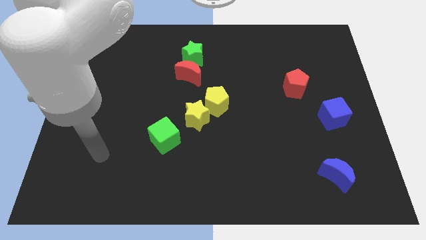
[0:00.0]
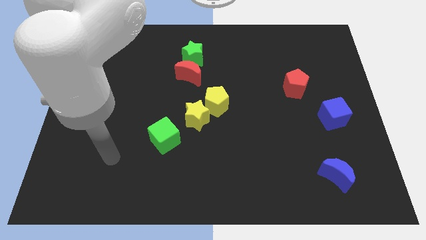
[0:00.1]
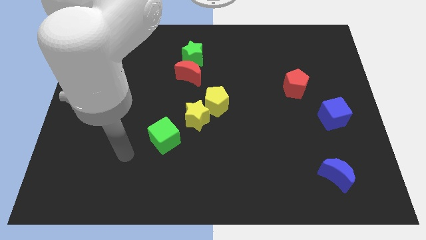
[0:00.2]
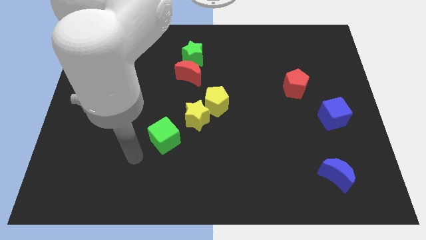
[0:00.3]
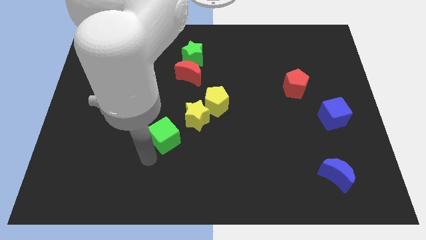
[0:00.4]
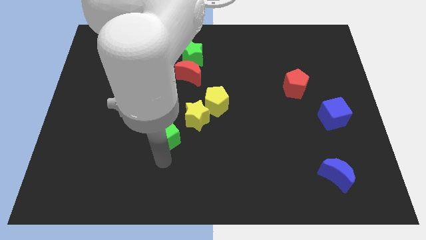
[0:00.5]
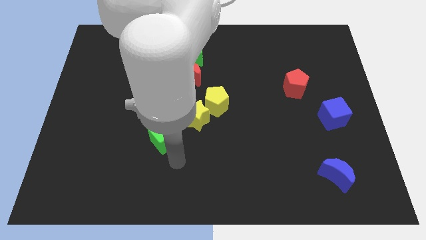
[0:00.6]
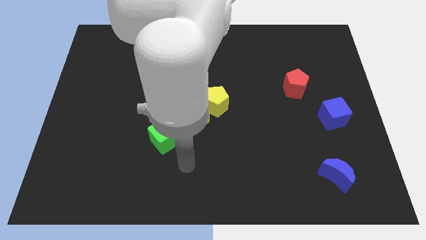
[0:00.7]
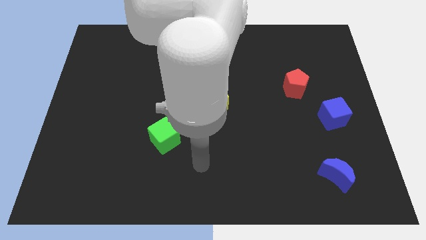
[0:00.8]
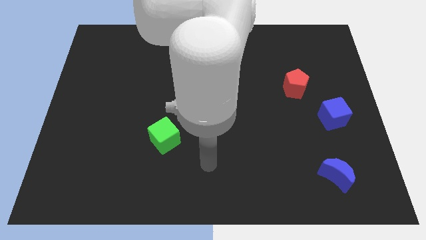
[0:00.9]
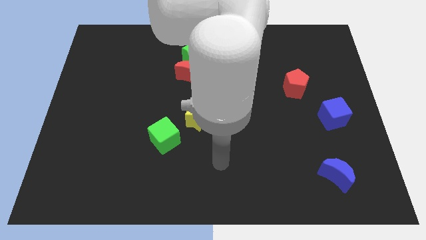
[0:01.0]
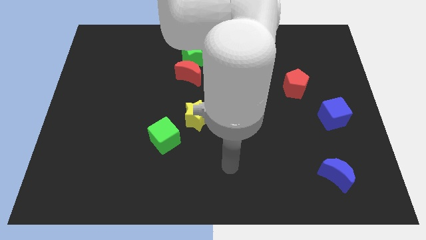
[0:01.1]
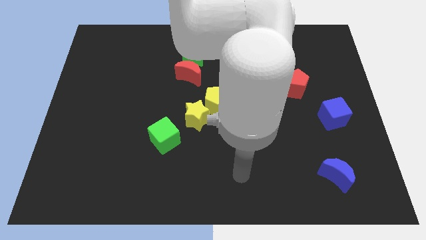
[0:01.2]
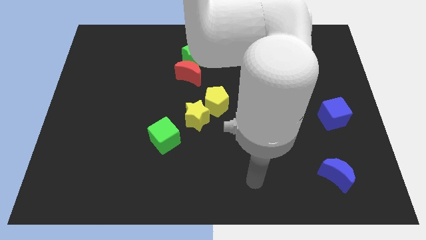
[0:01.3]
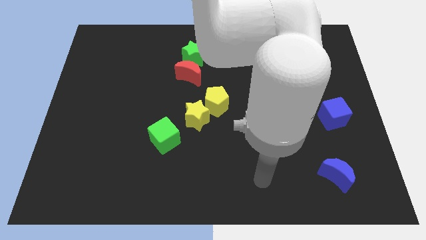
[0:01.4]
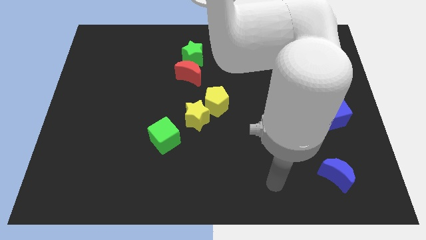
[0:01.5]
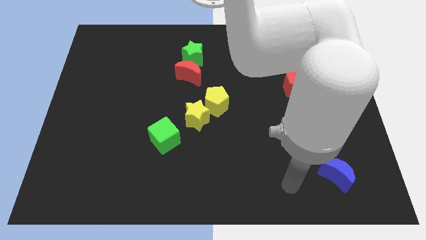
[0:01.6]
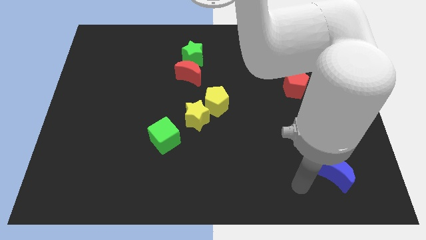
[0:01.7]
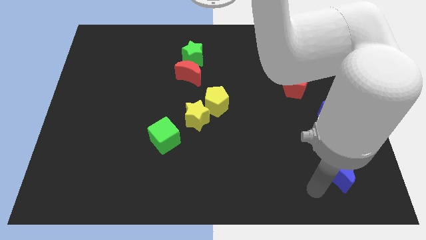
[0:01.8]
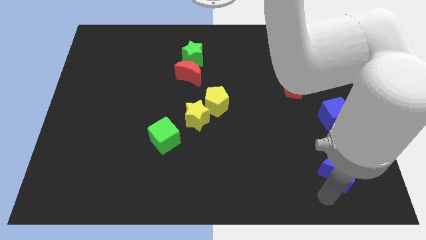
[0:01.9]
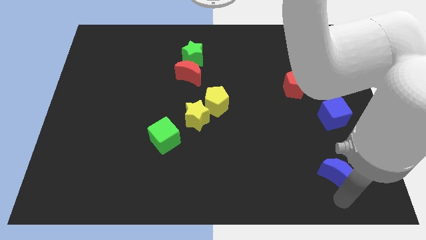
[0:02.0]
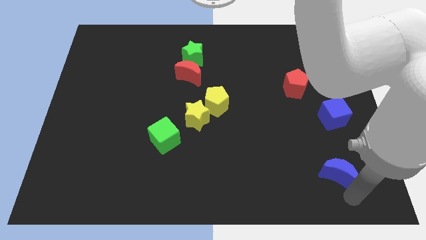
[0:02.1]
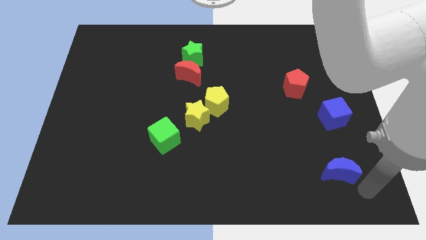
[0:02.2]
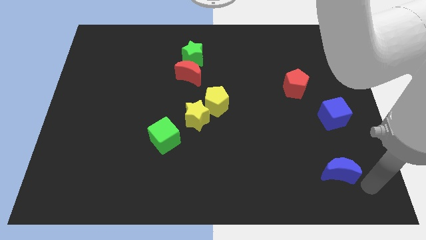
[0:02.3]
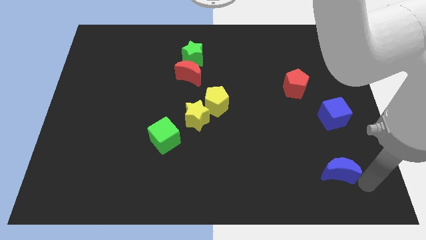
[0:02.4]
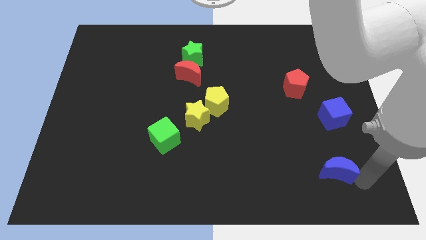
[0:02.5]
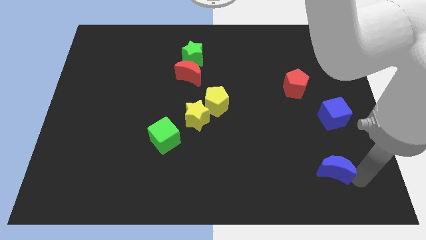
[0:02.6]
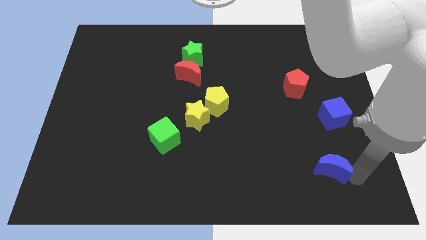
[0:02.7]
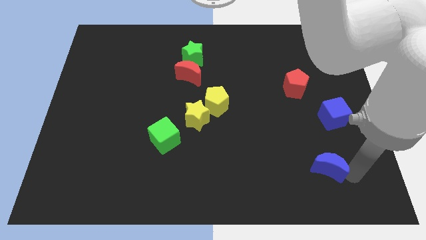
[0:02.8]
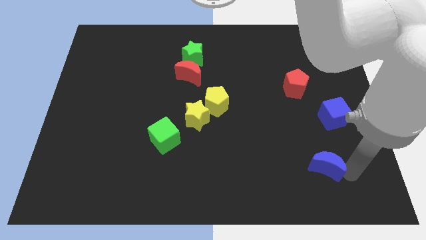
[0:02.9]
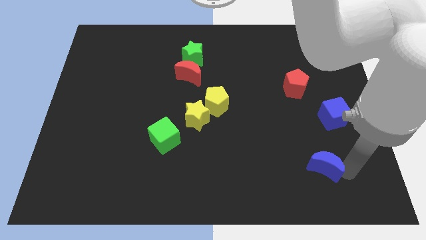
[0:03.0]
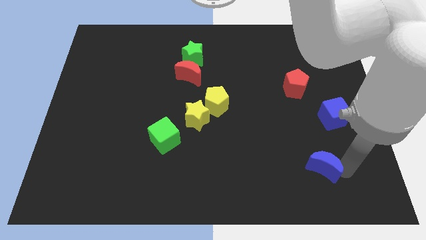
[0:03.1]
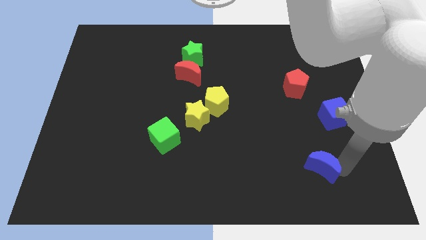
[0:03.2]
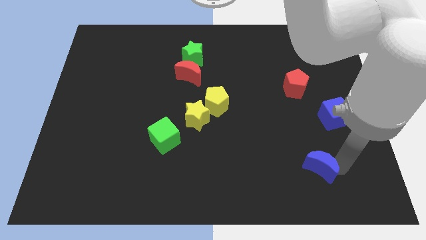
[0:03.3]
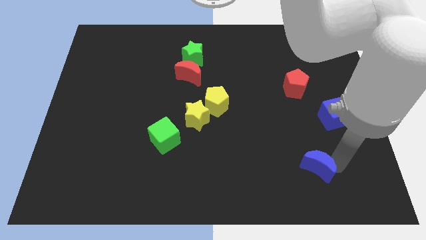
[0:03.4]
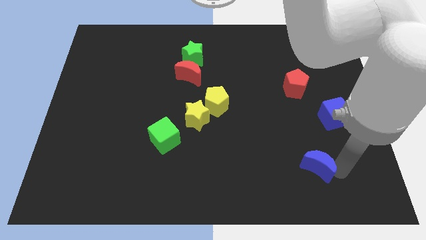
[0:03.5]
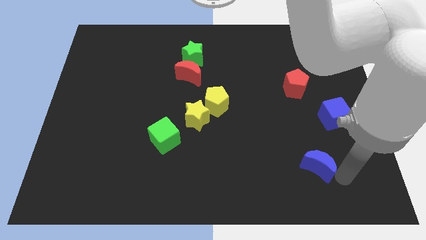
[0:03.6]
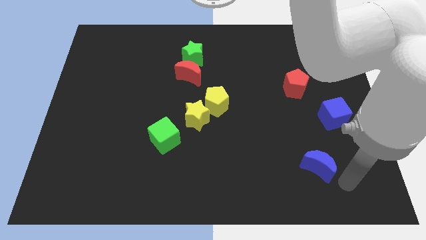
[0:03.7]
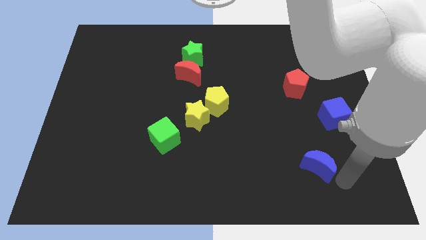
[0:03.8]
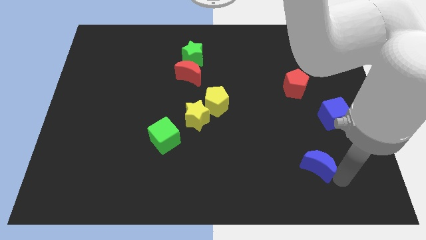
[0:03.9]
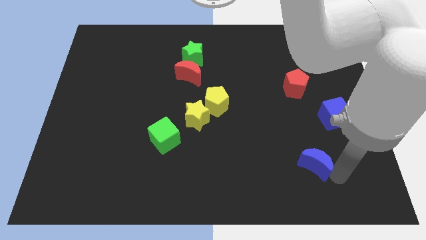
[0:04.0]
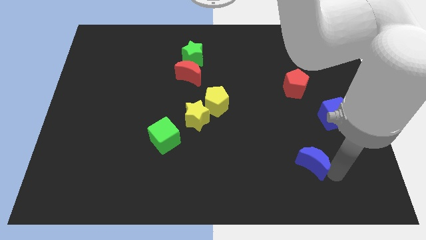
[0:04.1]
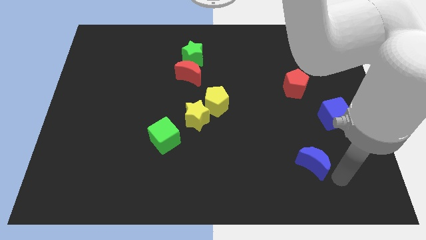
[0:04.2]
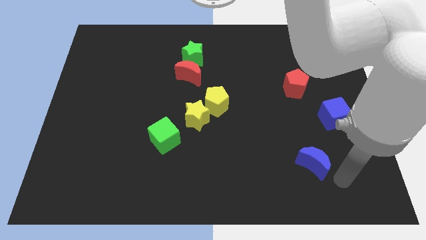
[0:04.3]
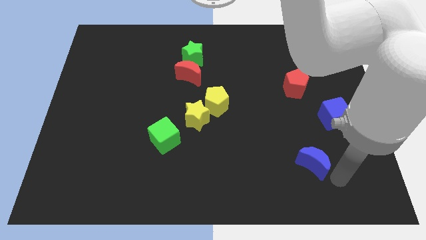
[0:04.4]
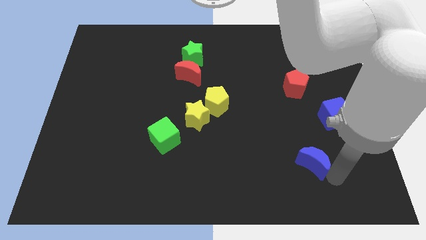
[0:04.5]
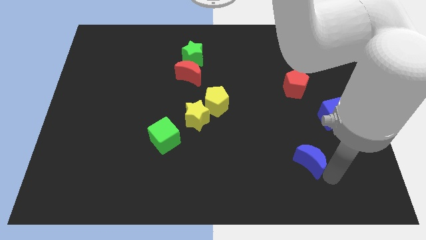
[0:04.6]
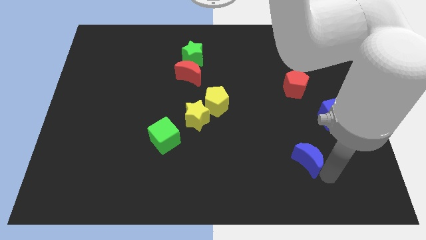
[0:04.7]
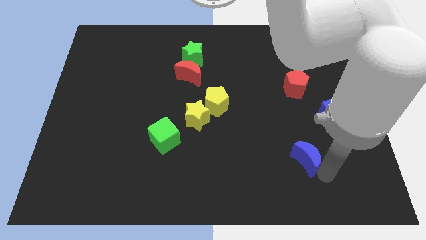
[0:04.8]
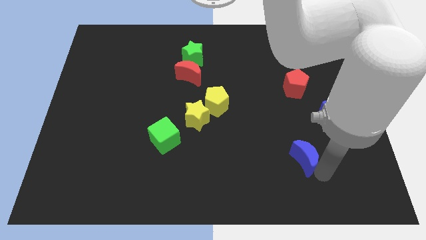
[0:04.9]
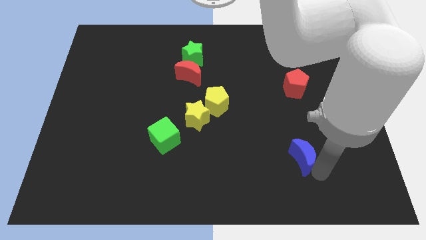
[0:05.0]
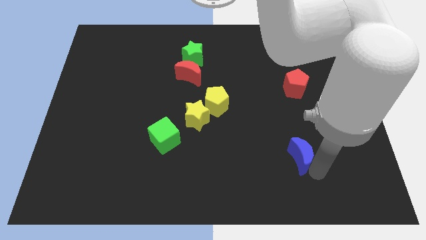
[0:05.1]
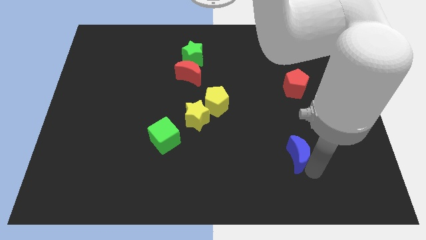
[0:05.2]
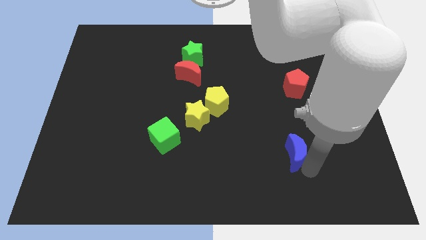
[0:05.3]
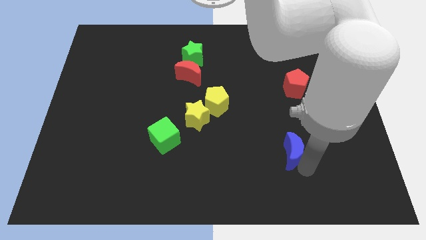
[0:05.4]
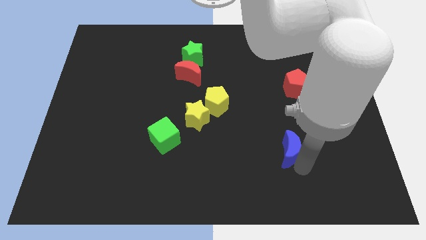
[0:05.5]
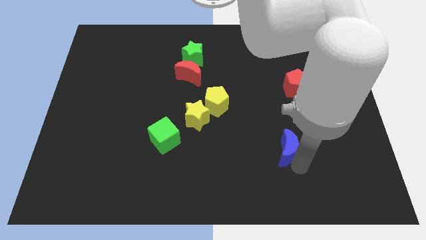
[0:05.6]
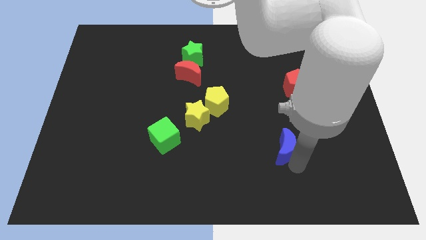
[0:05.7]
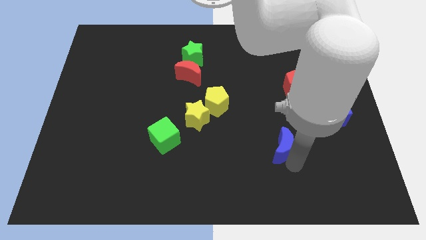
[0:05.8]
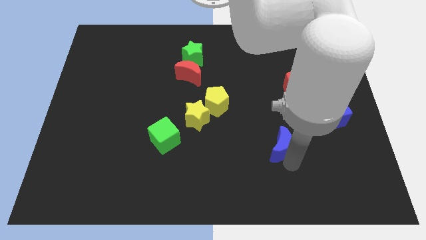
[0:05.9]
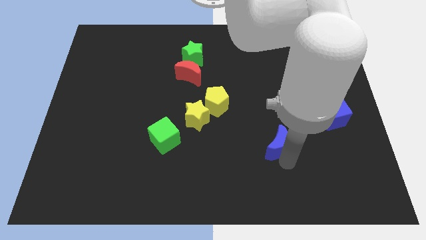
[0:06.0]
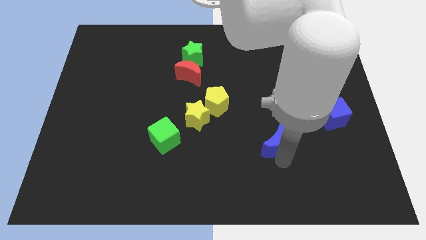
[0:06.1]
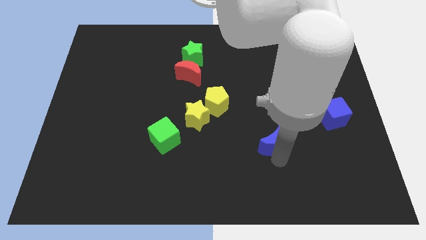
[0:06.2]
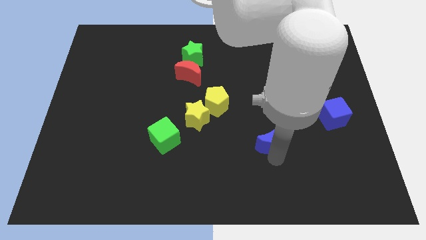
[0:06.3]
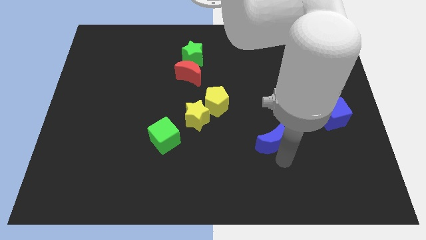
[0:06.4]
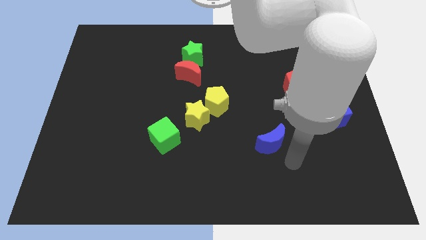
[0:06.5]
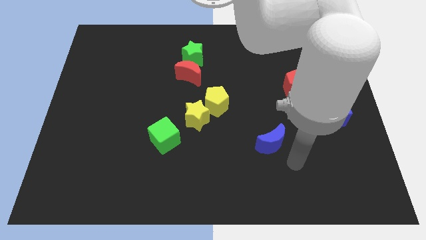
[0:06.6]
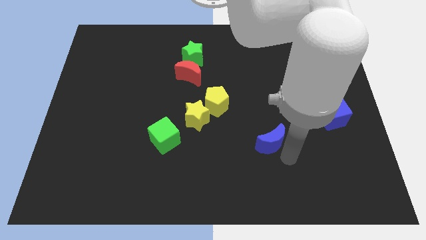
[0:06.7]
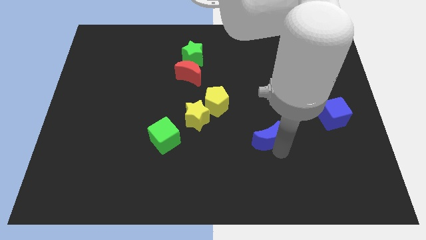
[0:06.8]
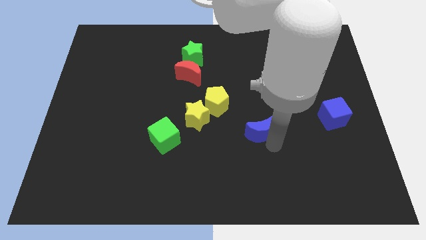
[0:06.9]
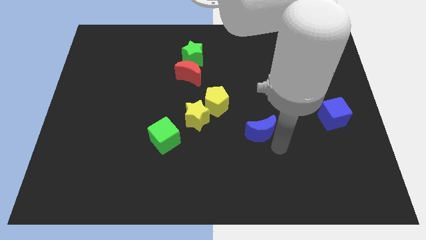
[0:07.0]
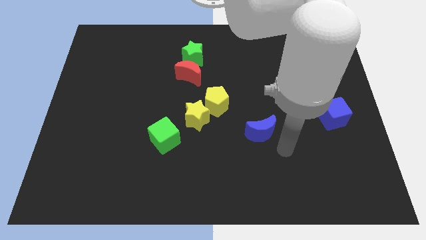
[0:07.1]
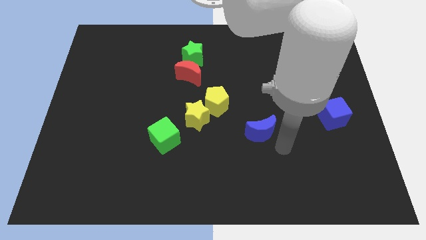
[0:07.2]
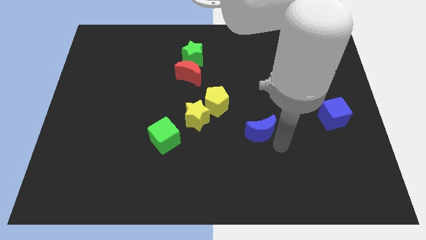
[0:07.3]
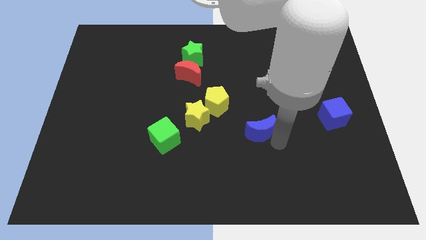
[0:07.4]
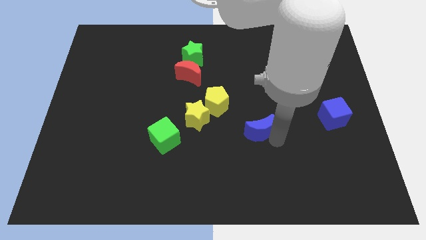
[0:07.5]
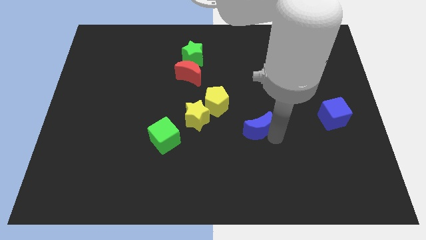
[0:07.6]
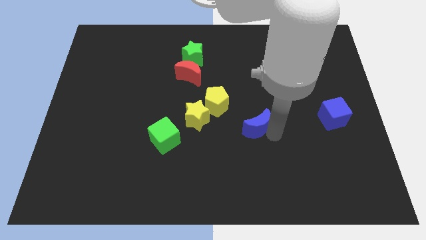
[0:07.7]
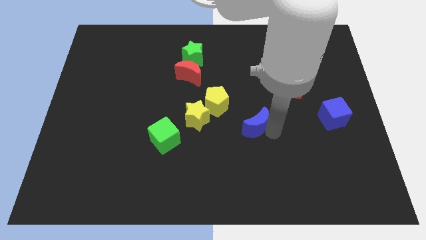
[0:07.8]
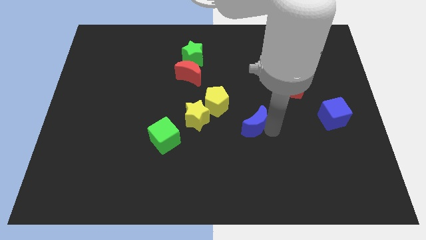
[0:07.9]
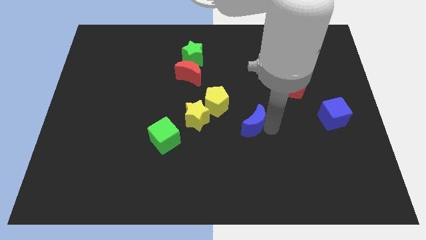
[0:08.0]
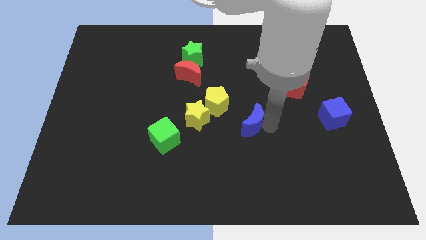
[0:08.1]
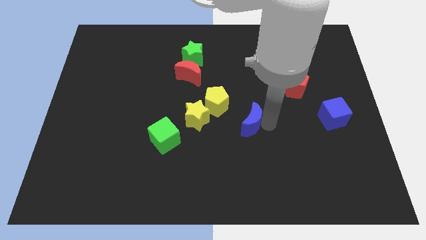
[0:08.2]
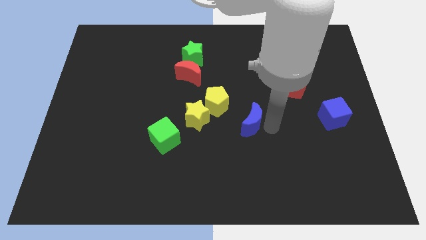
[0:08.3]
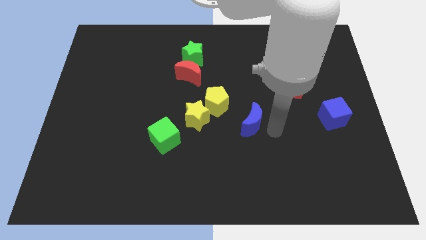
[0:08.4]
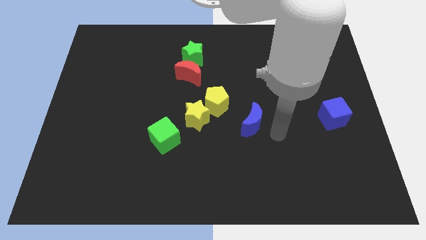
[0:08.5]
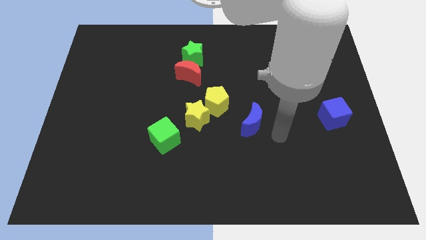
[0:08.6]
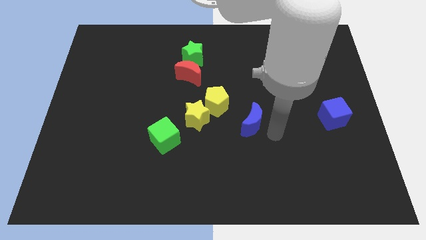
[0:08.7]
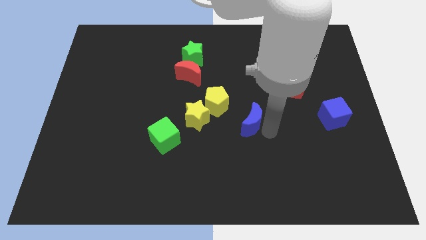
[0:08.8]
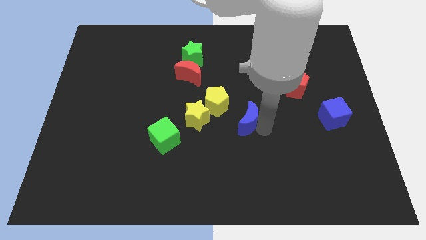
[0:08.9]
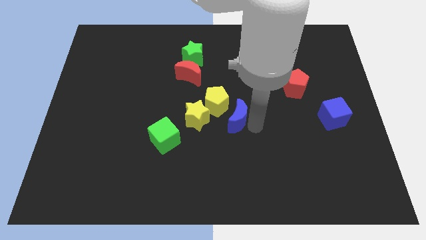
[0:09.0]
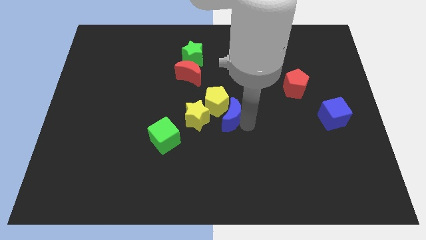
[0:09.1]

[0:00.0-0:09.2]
slide the blue moon next to the yellow pentagon
